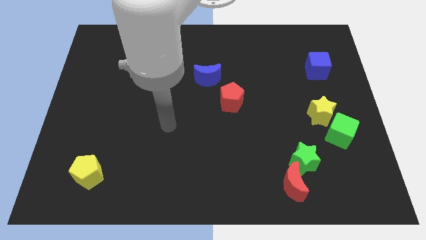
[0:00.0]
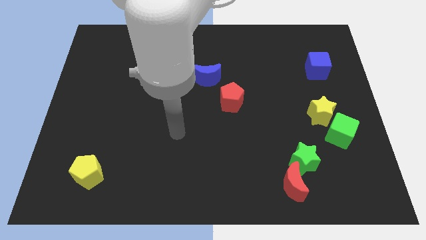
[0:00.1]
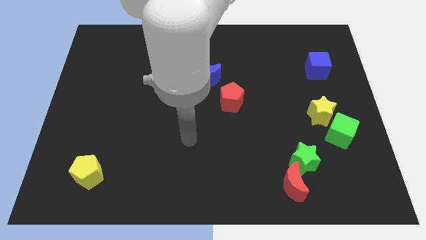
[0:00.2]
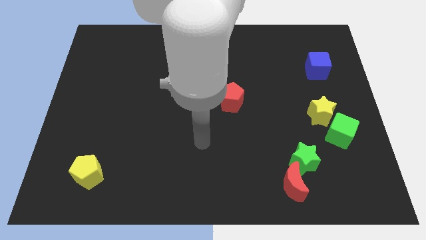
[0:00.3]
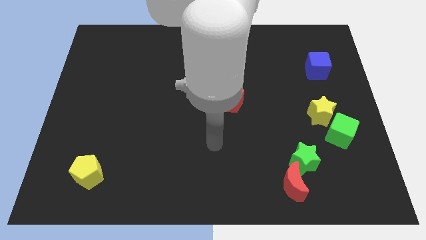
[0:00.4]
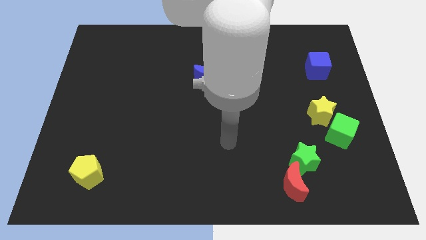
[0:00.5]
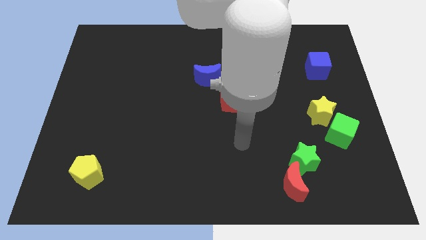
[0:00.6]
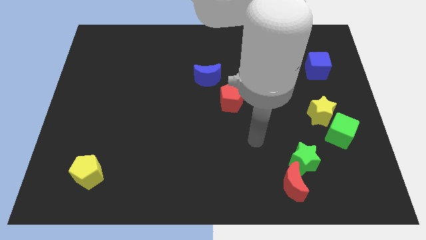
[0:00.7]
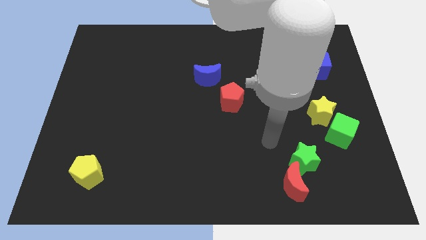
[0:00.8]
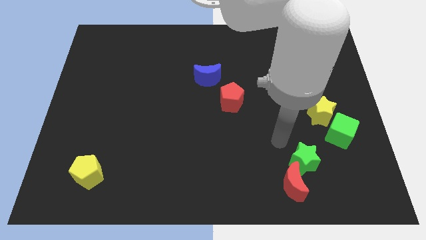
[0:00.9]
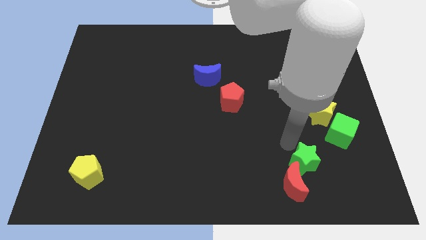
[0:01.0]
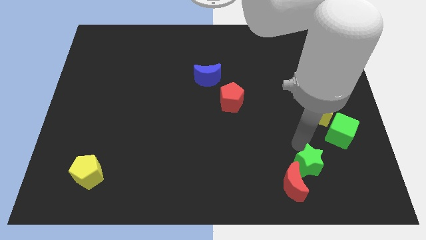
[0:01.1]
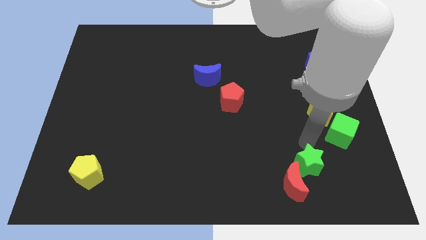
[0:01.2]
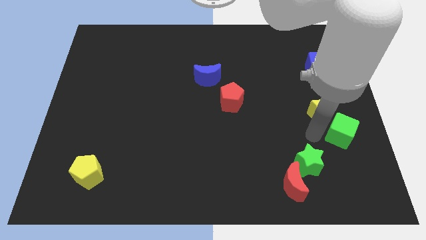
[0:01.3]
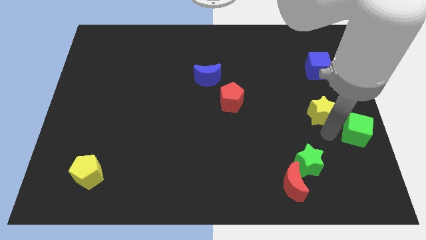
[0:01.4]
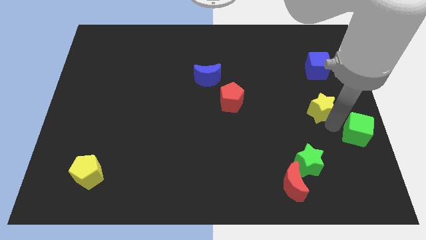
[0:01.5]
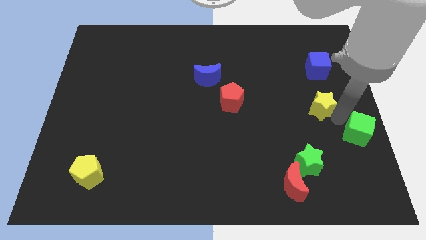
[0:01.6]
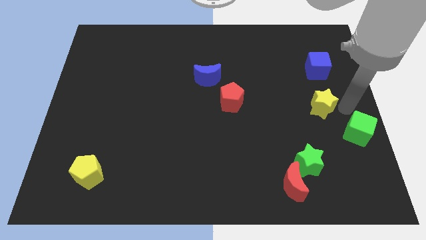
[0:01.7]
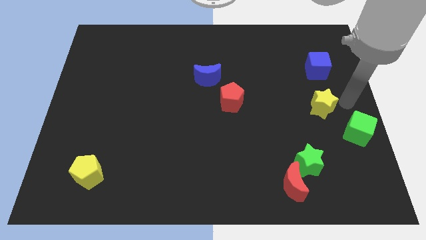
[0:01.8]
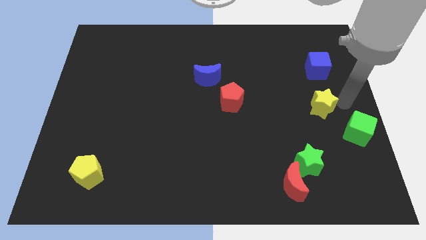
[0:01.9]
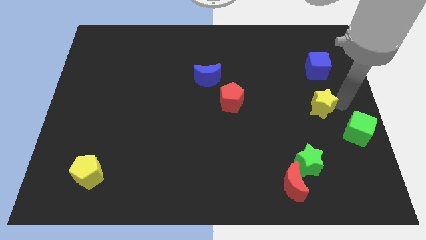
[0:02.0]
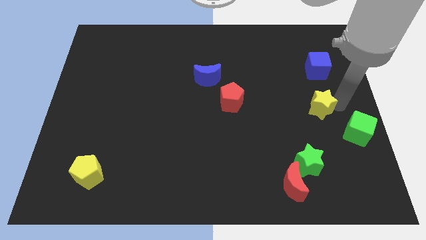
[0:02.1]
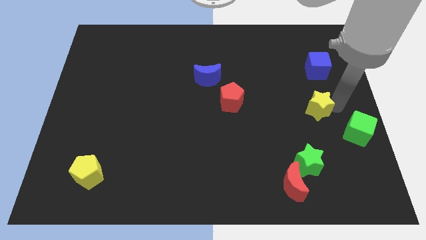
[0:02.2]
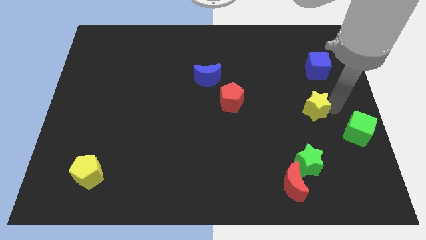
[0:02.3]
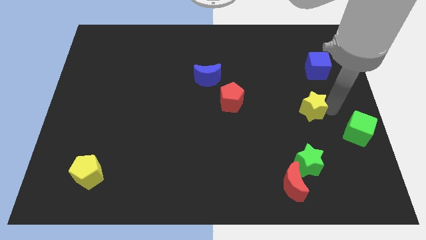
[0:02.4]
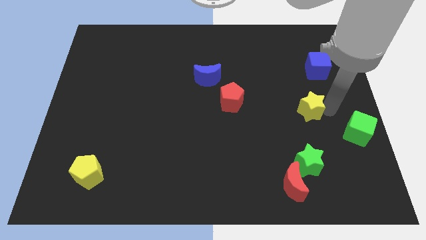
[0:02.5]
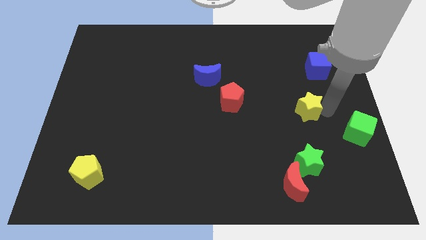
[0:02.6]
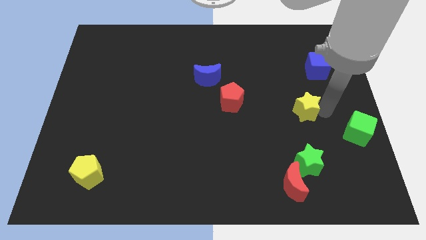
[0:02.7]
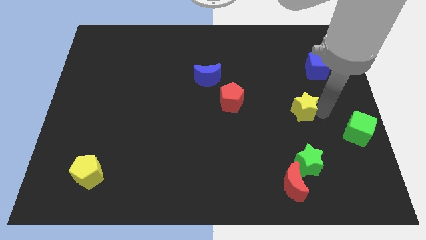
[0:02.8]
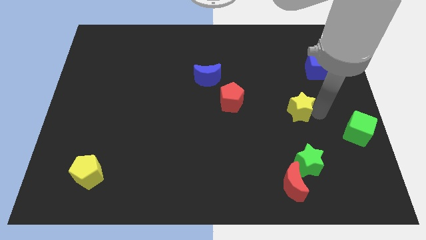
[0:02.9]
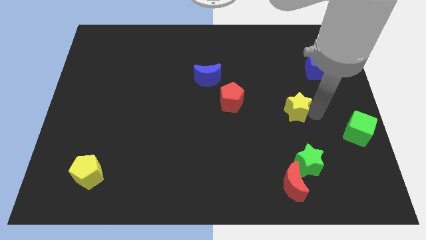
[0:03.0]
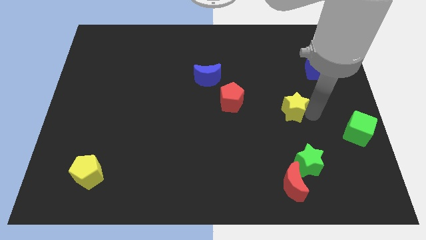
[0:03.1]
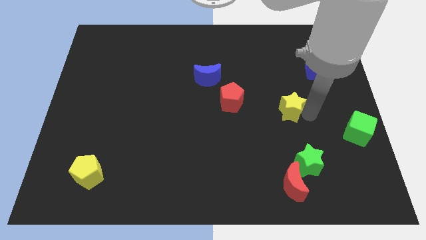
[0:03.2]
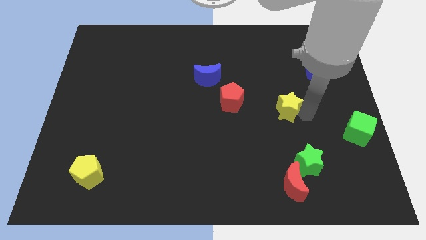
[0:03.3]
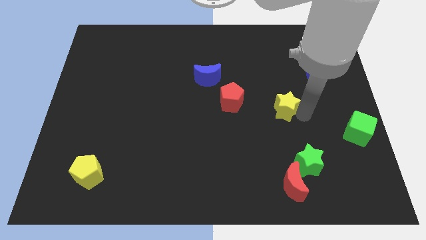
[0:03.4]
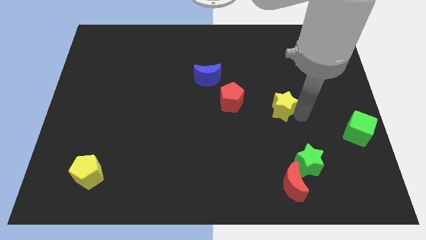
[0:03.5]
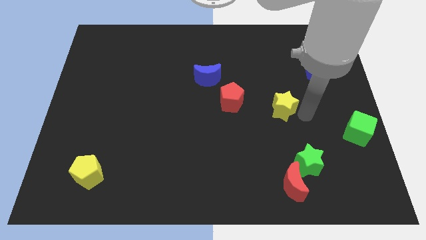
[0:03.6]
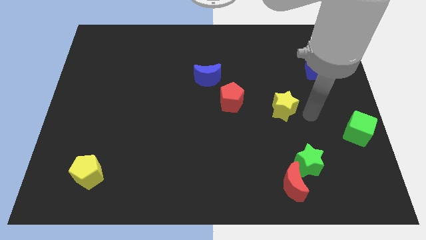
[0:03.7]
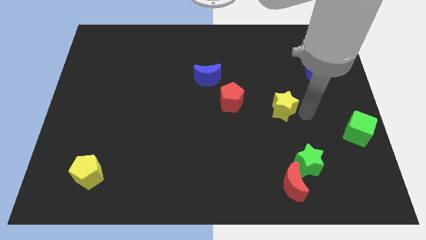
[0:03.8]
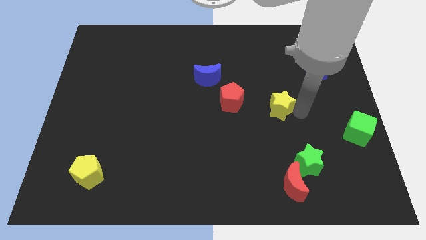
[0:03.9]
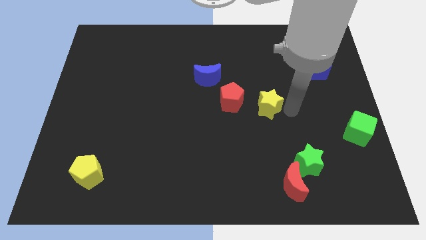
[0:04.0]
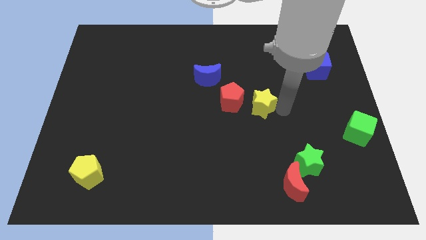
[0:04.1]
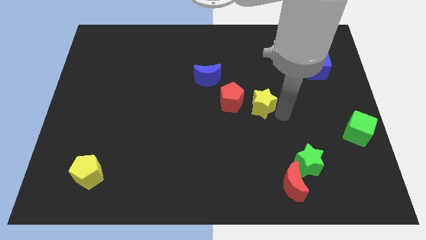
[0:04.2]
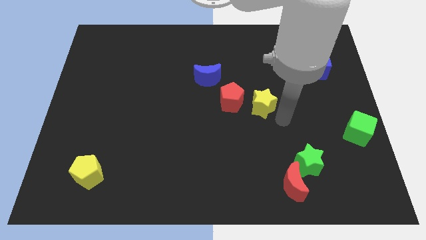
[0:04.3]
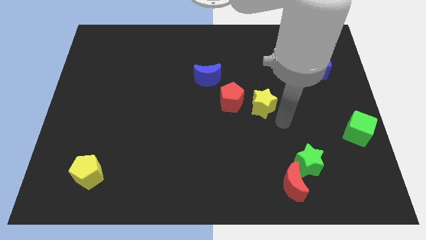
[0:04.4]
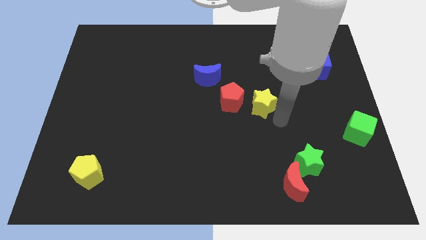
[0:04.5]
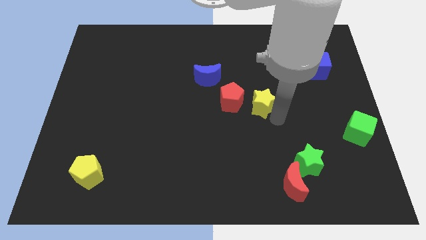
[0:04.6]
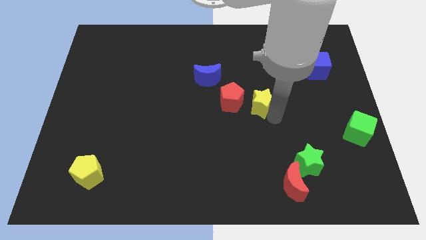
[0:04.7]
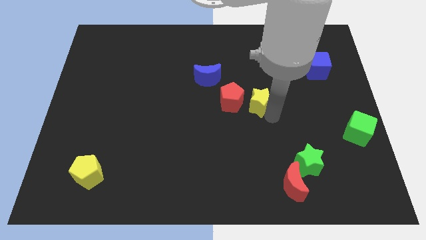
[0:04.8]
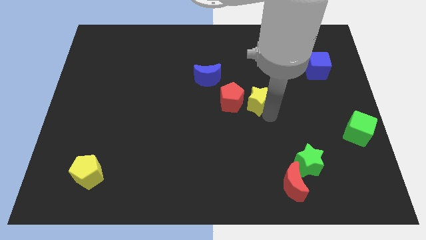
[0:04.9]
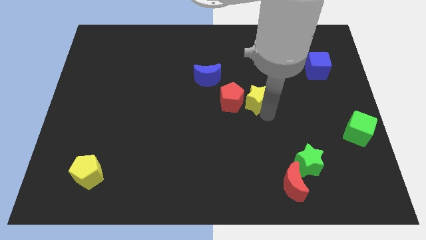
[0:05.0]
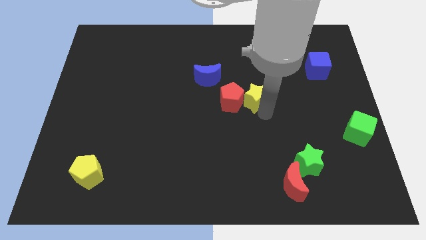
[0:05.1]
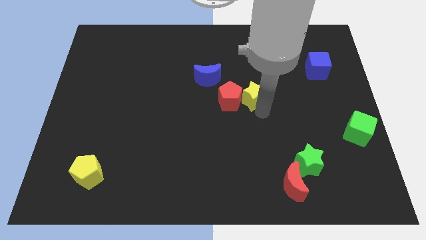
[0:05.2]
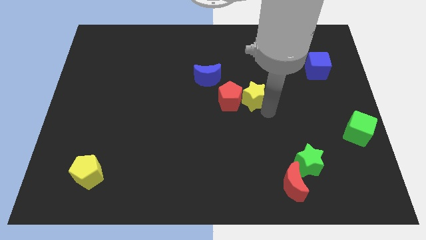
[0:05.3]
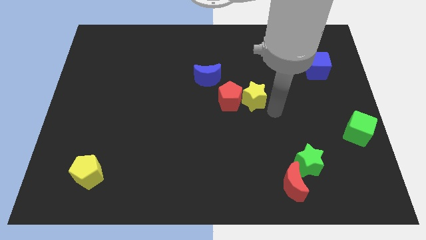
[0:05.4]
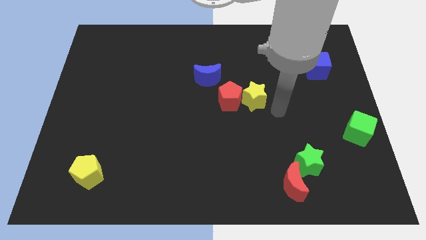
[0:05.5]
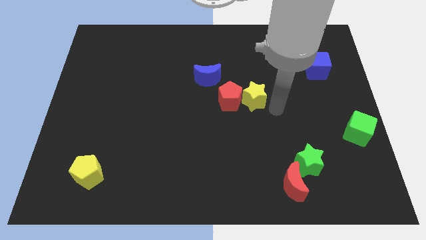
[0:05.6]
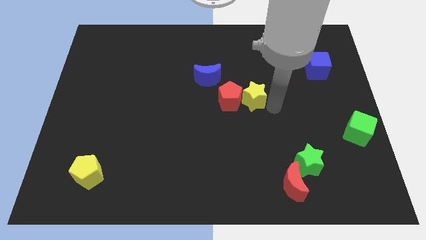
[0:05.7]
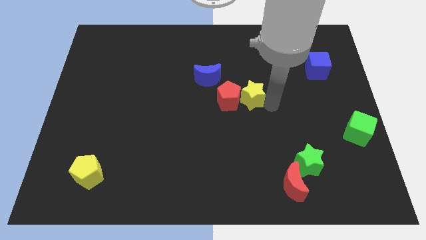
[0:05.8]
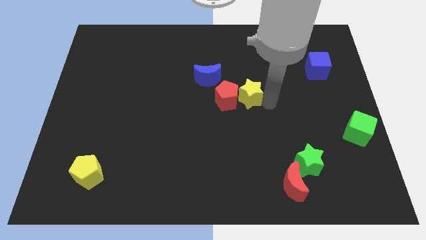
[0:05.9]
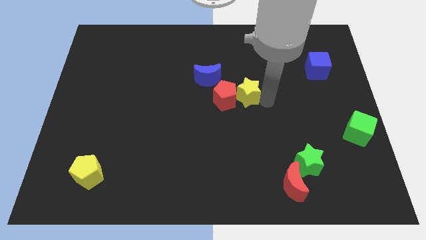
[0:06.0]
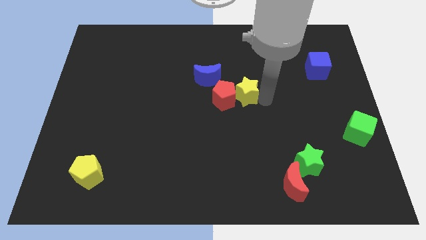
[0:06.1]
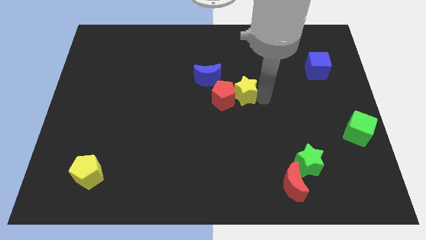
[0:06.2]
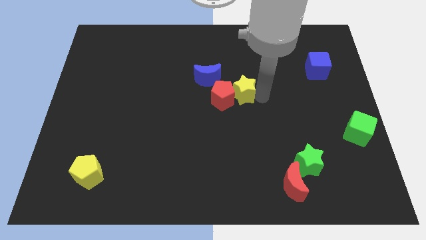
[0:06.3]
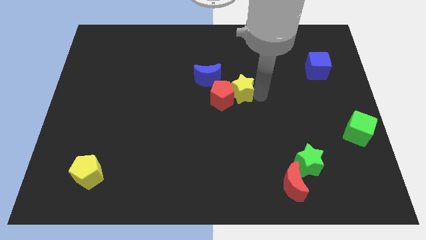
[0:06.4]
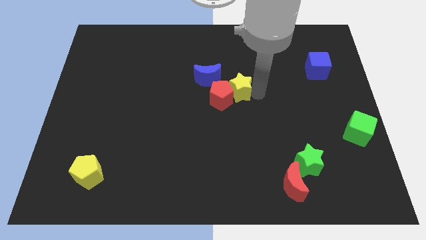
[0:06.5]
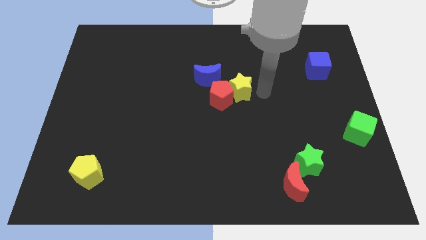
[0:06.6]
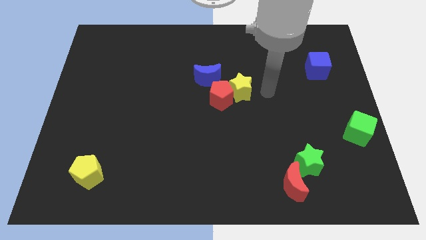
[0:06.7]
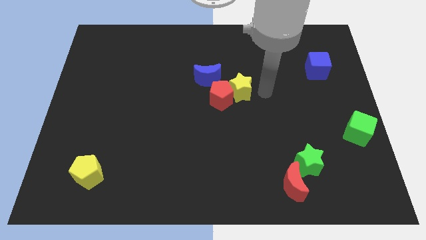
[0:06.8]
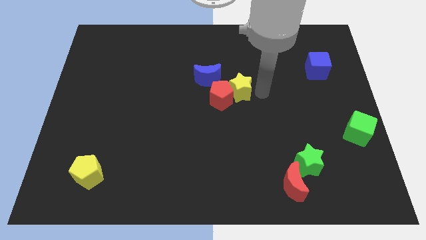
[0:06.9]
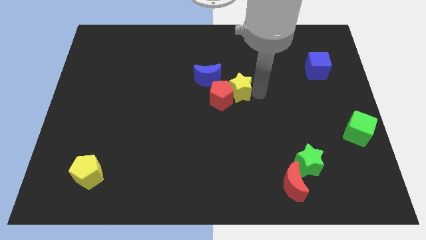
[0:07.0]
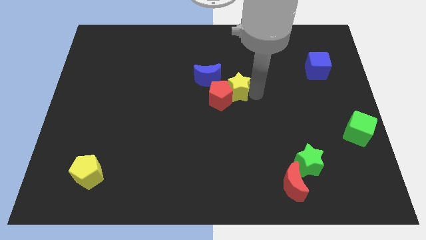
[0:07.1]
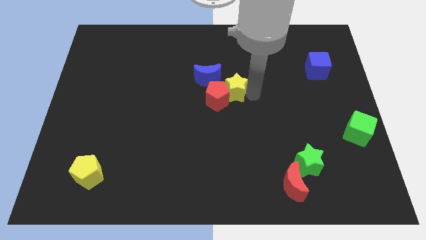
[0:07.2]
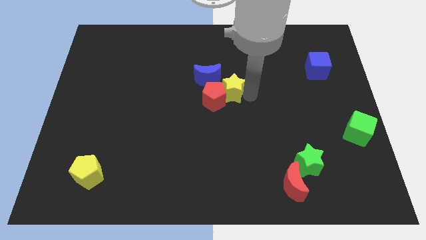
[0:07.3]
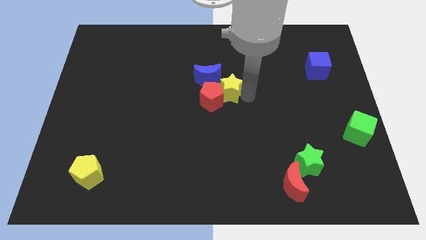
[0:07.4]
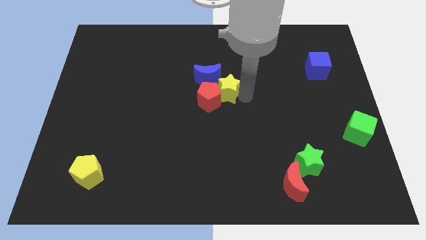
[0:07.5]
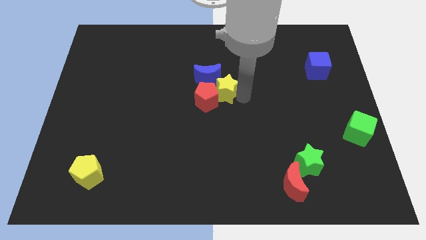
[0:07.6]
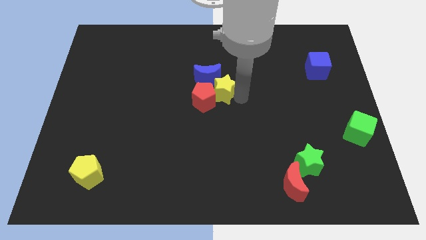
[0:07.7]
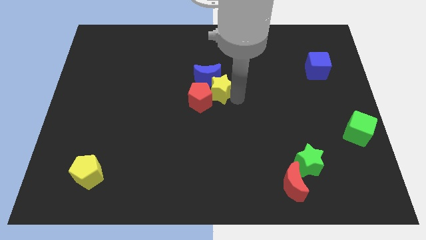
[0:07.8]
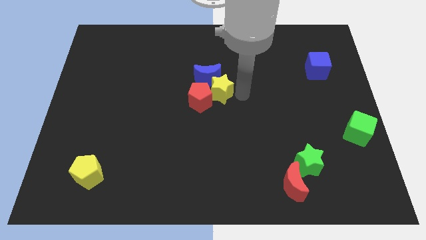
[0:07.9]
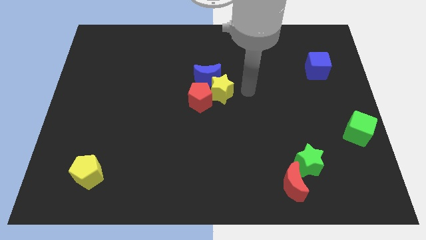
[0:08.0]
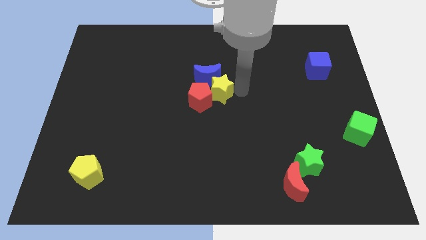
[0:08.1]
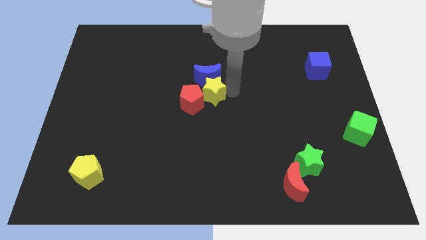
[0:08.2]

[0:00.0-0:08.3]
move the yellow star diagonally down and to the left of the blue moon
